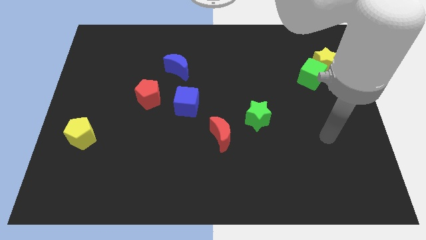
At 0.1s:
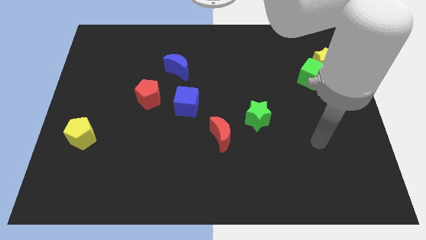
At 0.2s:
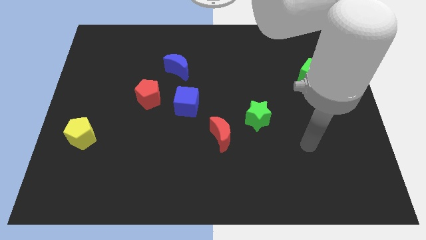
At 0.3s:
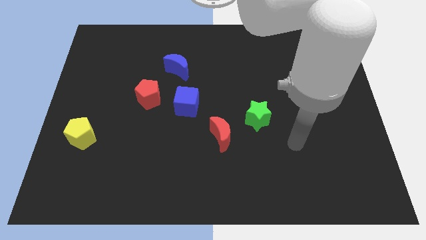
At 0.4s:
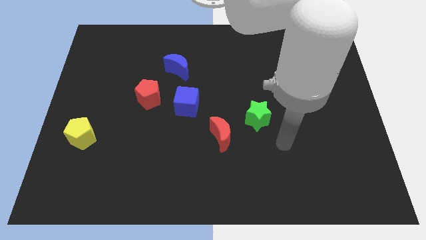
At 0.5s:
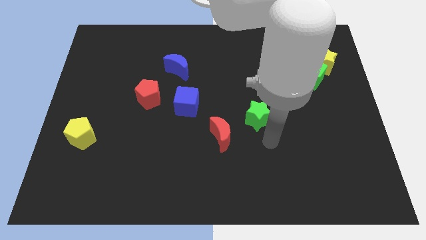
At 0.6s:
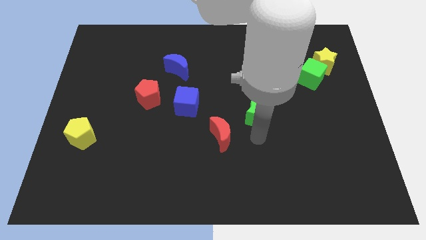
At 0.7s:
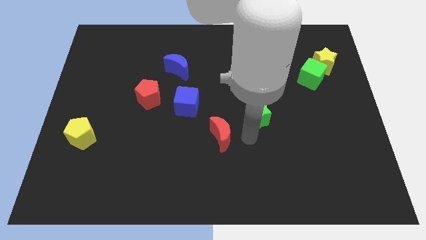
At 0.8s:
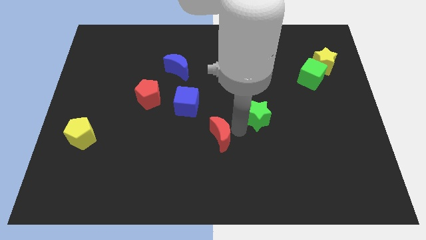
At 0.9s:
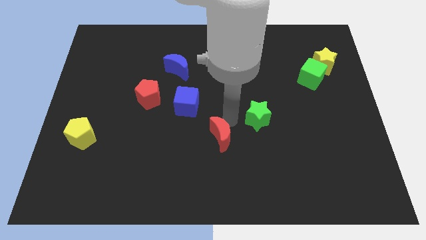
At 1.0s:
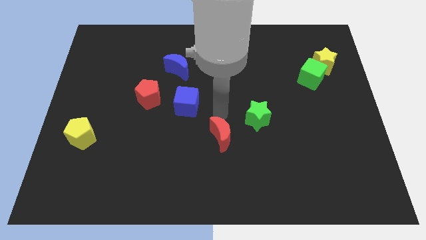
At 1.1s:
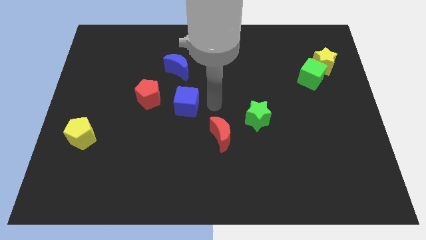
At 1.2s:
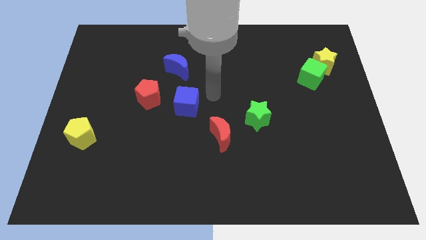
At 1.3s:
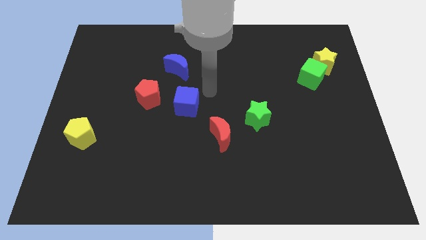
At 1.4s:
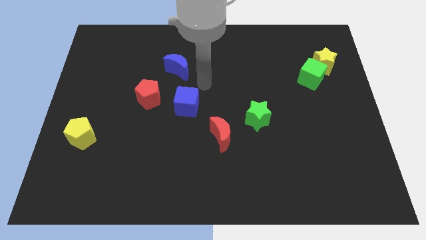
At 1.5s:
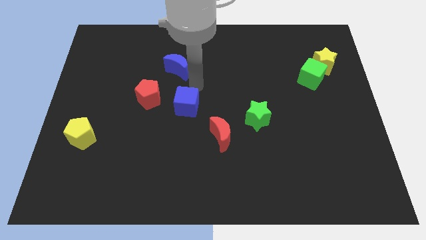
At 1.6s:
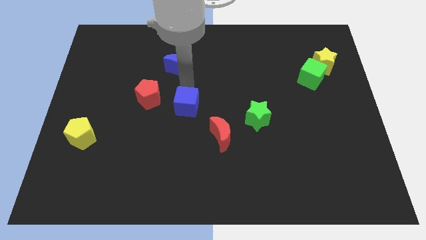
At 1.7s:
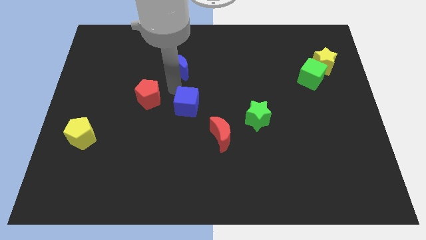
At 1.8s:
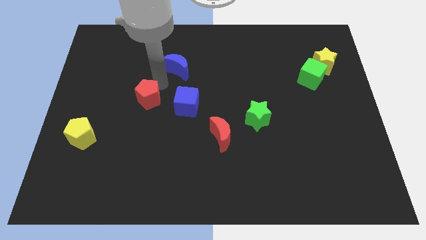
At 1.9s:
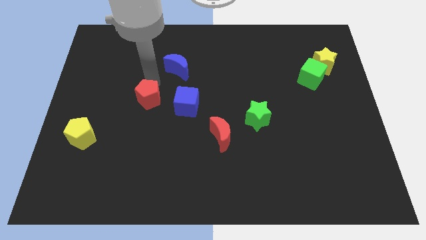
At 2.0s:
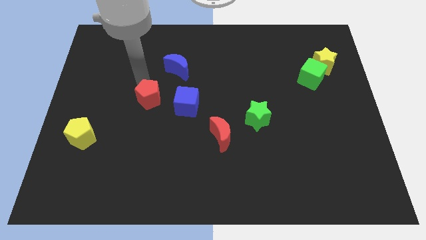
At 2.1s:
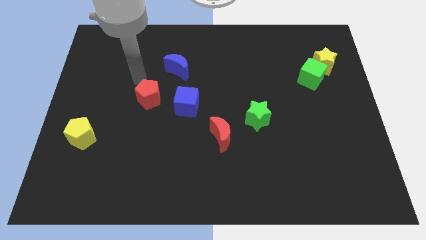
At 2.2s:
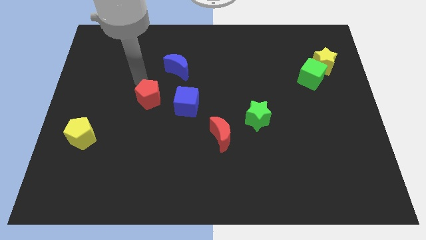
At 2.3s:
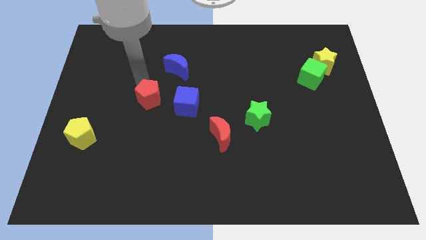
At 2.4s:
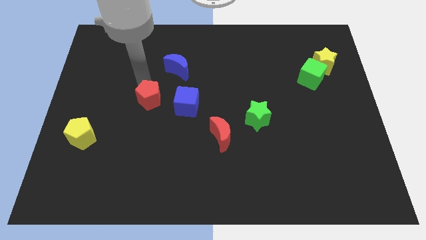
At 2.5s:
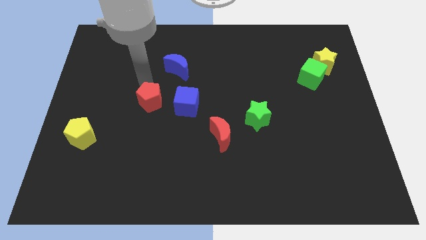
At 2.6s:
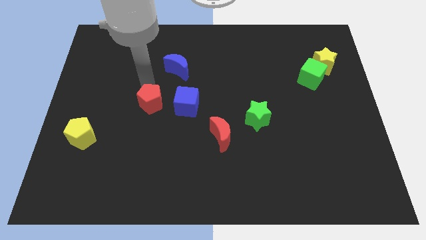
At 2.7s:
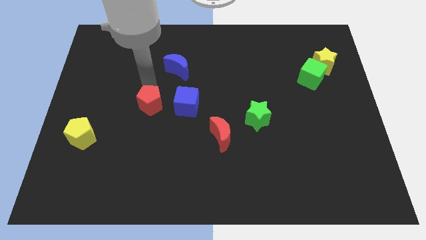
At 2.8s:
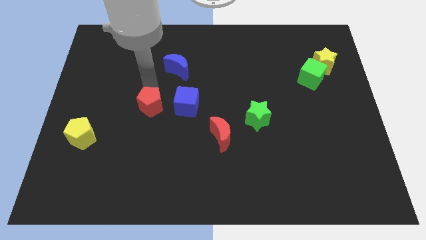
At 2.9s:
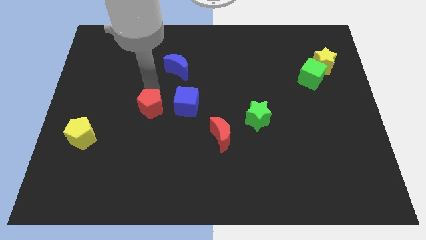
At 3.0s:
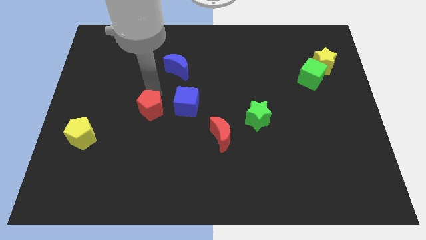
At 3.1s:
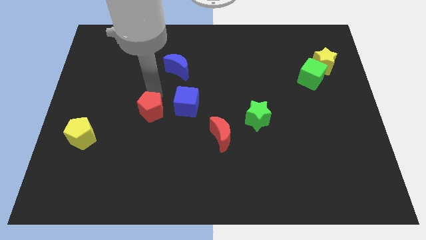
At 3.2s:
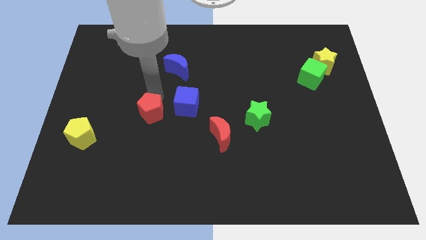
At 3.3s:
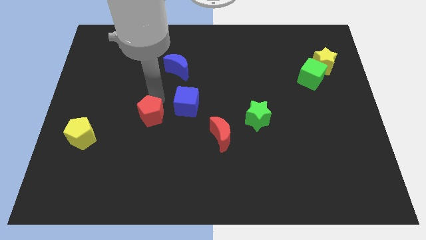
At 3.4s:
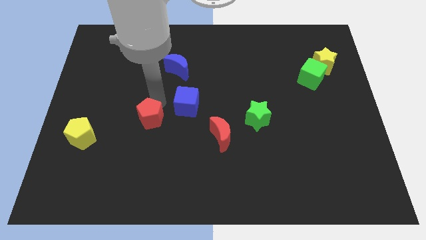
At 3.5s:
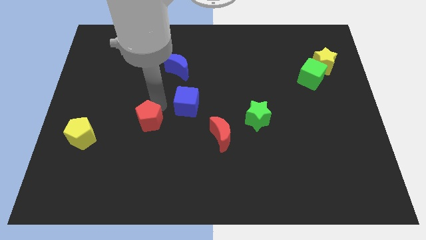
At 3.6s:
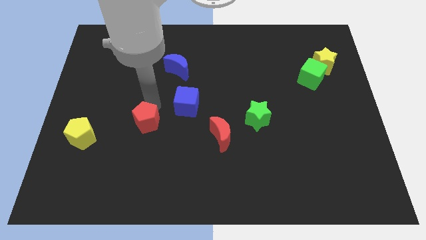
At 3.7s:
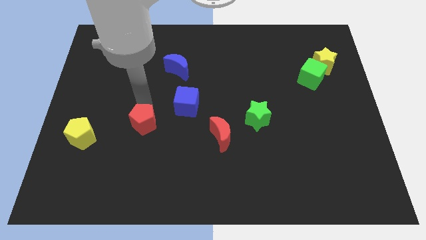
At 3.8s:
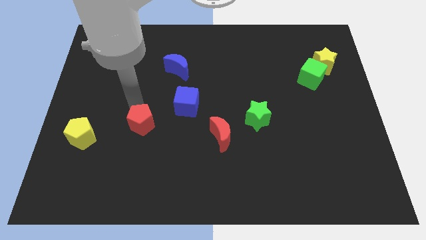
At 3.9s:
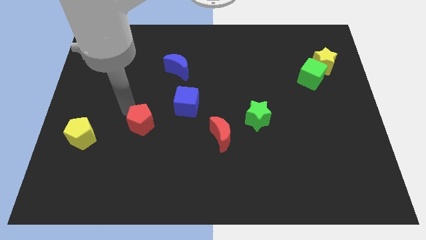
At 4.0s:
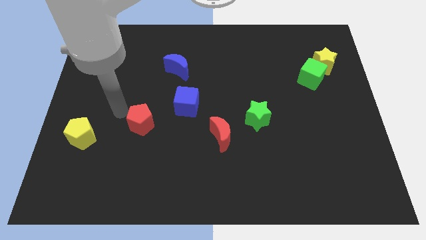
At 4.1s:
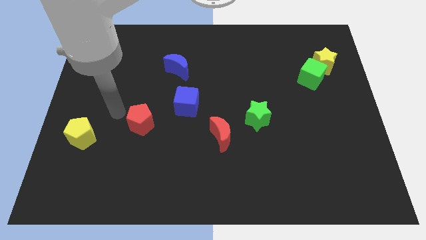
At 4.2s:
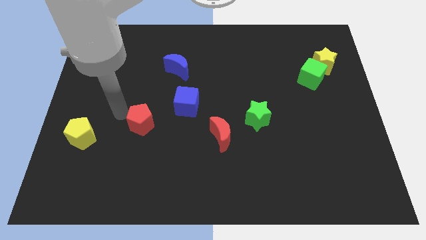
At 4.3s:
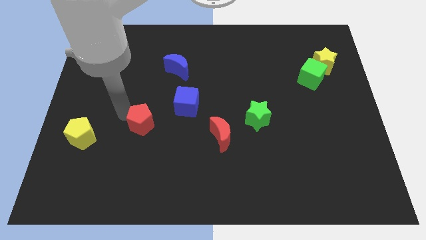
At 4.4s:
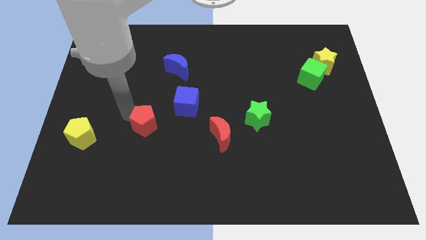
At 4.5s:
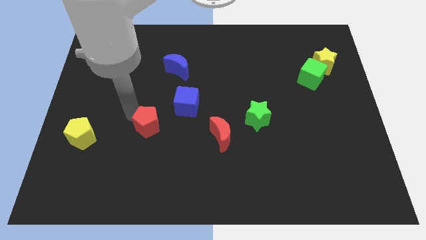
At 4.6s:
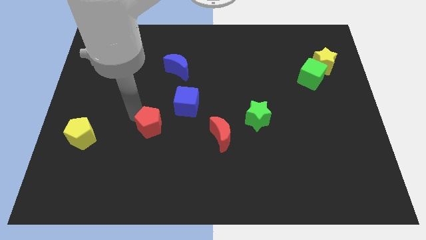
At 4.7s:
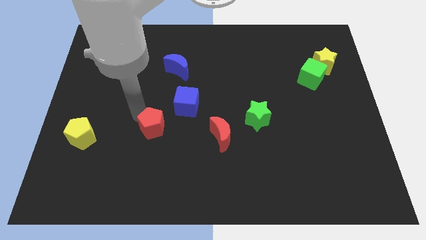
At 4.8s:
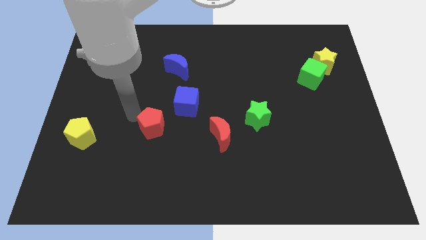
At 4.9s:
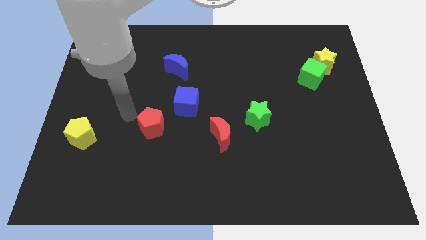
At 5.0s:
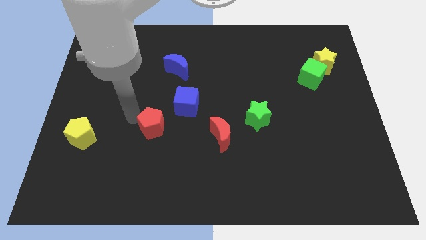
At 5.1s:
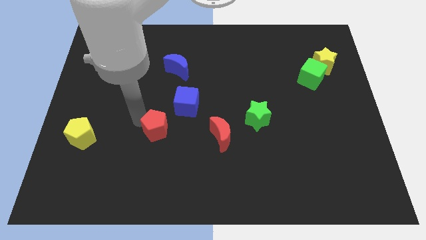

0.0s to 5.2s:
move the red pentagon to the left of the red moon
